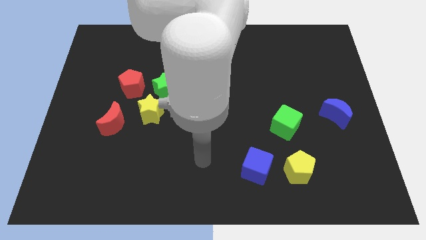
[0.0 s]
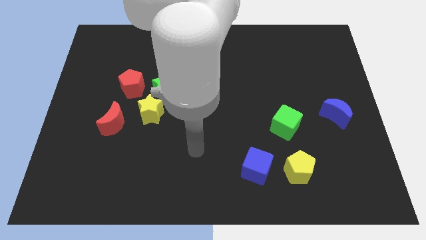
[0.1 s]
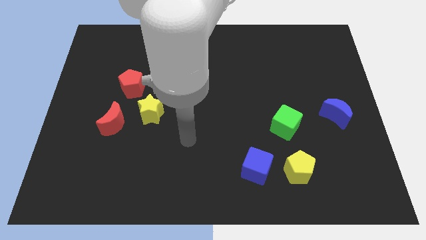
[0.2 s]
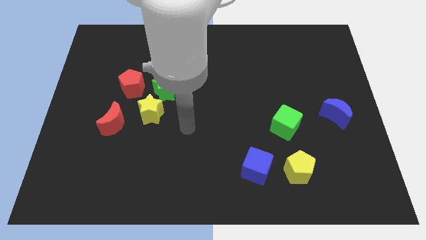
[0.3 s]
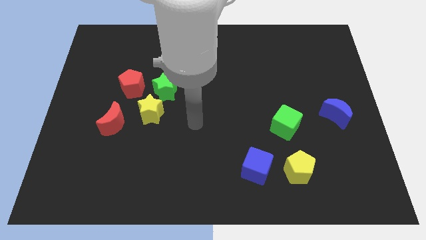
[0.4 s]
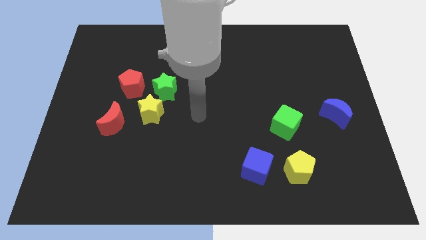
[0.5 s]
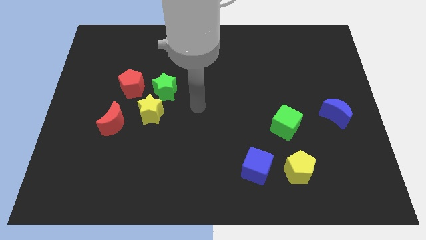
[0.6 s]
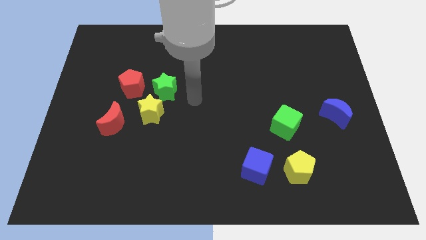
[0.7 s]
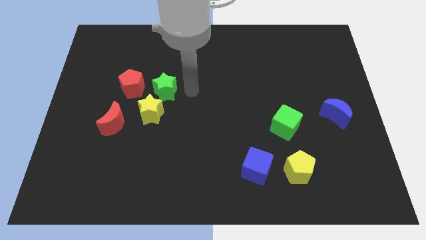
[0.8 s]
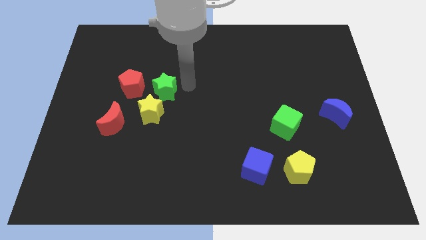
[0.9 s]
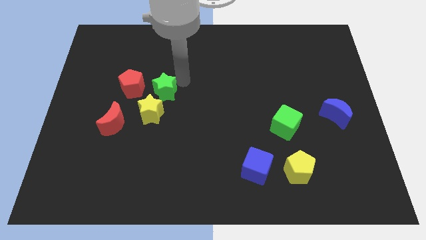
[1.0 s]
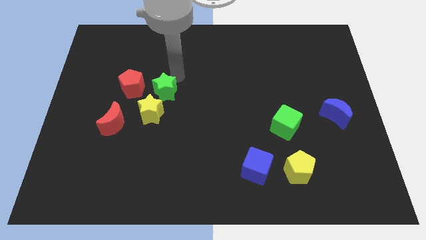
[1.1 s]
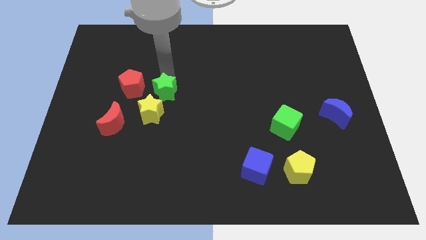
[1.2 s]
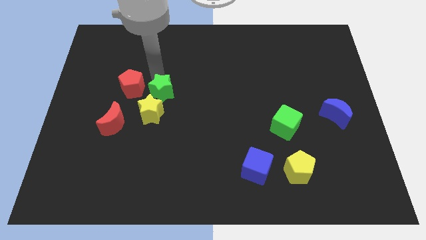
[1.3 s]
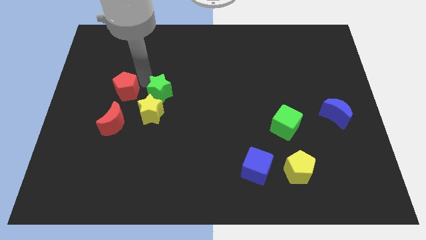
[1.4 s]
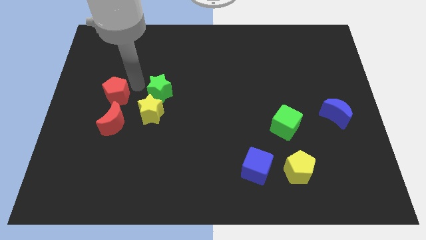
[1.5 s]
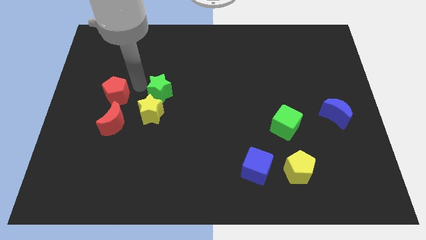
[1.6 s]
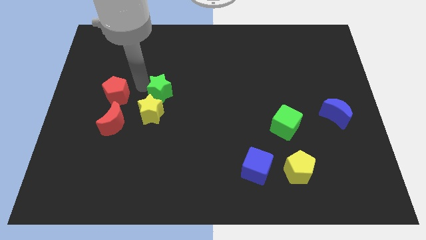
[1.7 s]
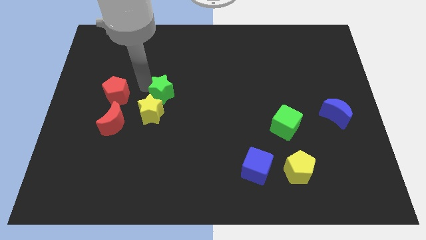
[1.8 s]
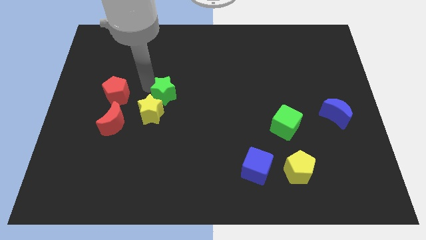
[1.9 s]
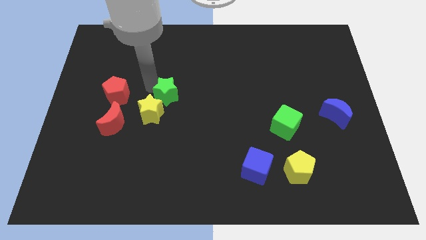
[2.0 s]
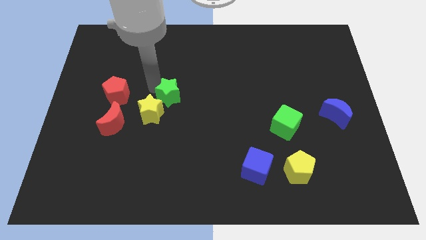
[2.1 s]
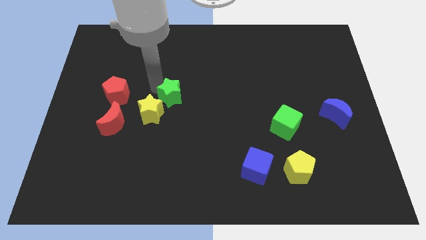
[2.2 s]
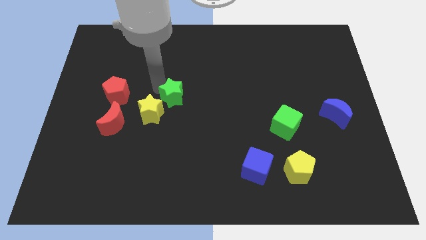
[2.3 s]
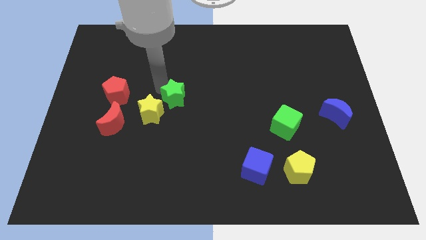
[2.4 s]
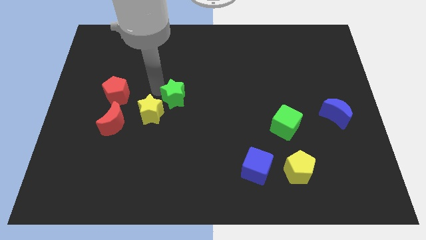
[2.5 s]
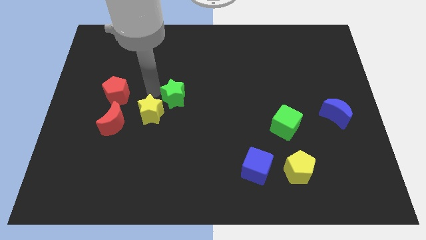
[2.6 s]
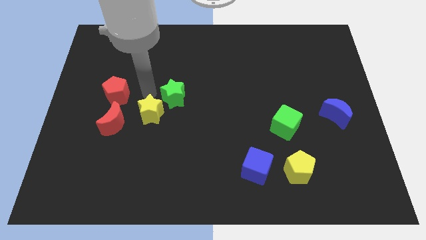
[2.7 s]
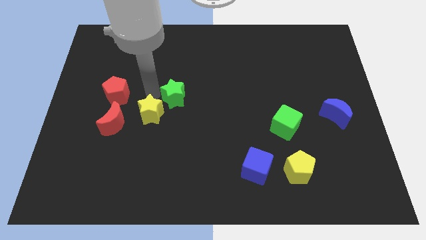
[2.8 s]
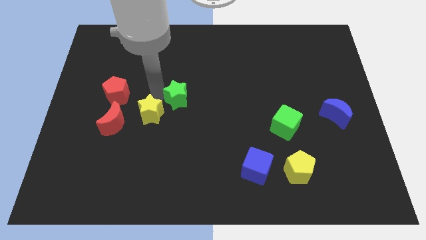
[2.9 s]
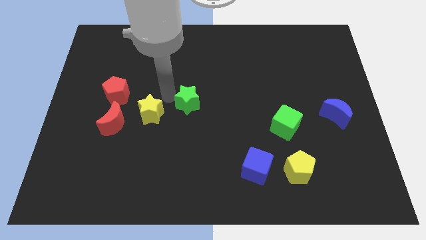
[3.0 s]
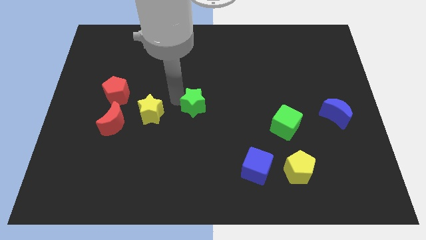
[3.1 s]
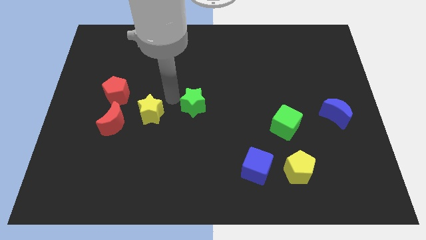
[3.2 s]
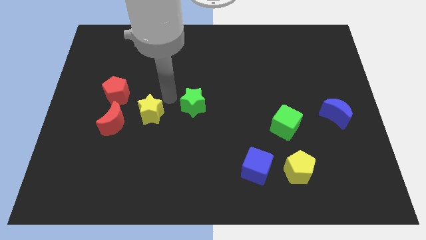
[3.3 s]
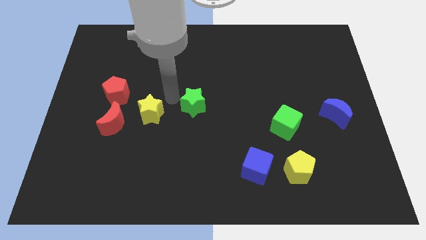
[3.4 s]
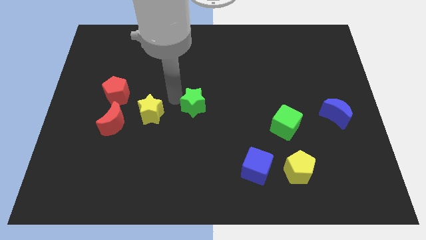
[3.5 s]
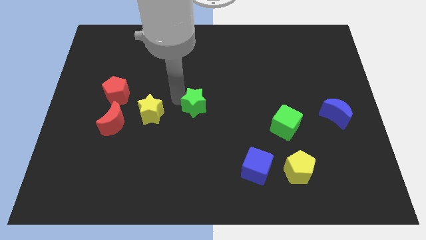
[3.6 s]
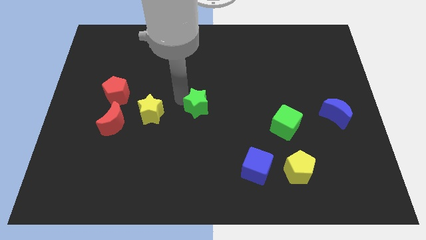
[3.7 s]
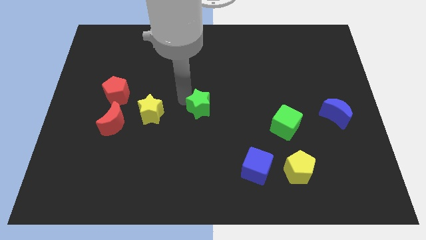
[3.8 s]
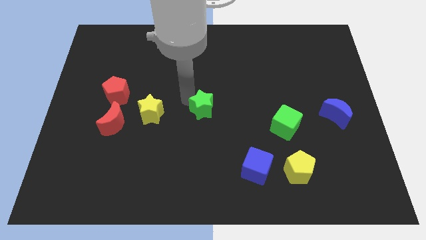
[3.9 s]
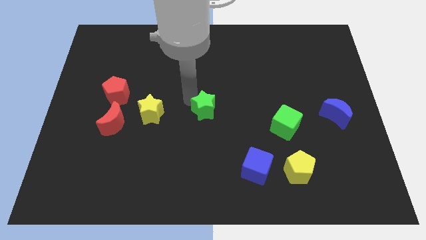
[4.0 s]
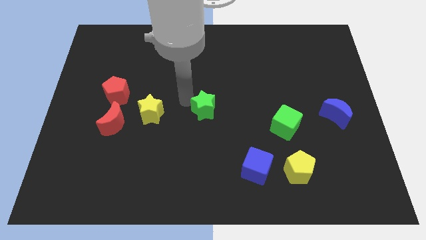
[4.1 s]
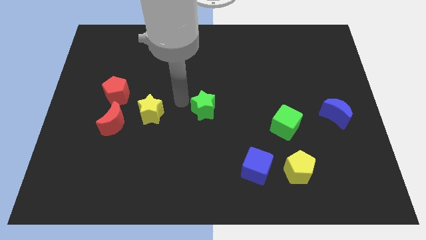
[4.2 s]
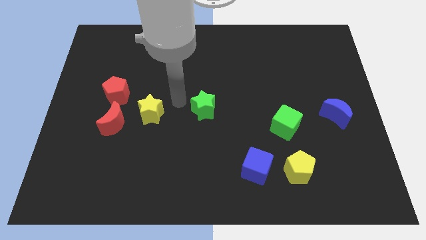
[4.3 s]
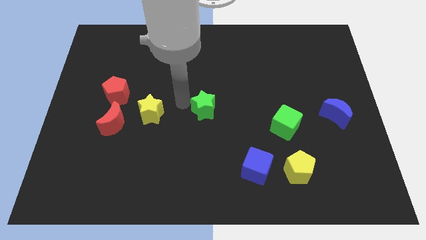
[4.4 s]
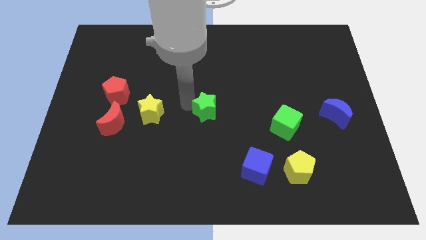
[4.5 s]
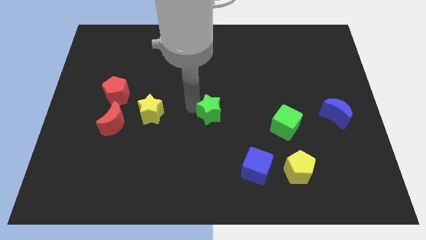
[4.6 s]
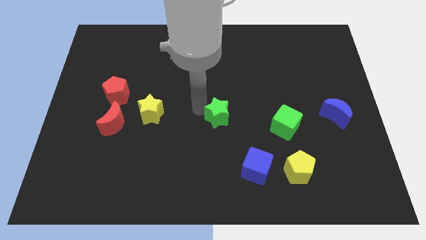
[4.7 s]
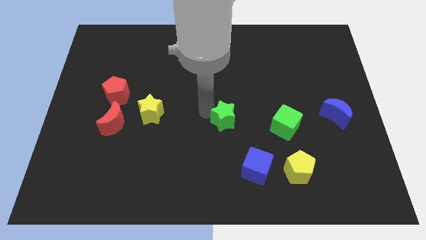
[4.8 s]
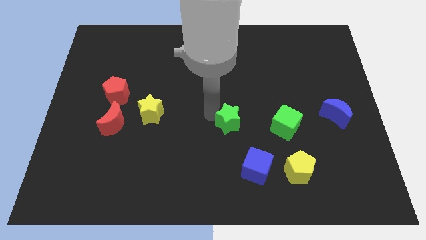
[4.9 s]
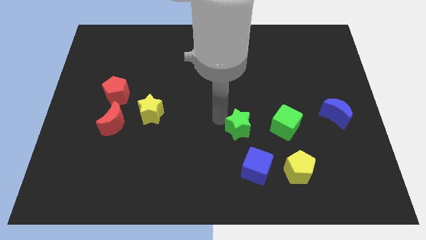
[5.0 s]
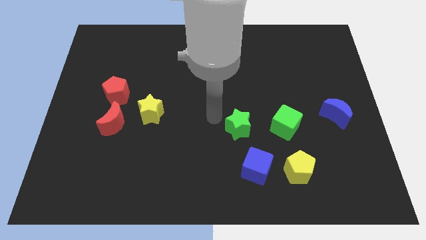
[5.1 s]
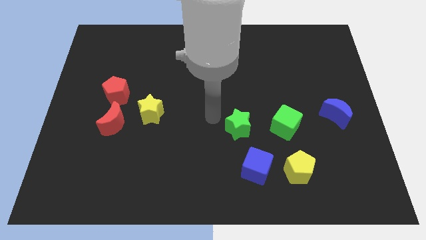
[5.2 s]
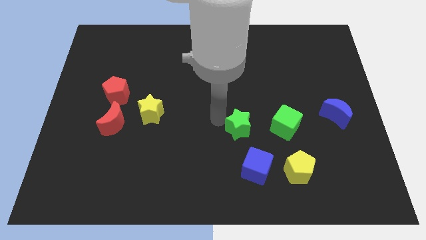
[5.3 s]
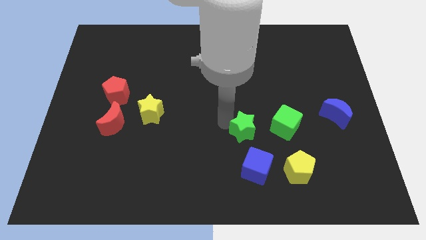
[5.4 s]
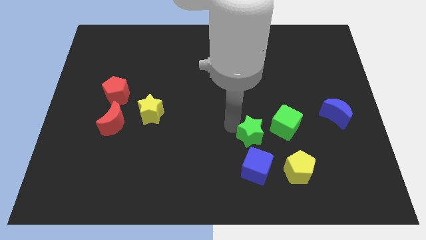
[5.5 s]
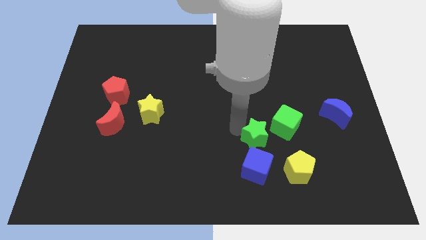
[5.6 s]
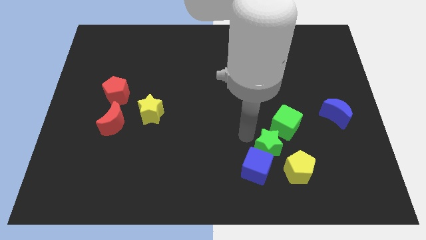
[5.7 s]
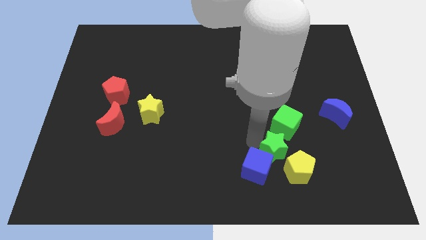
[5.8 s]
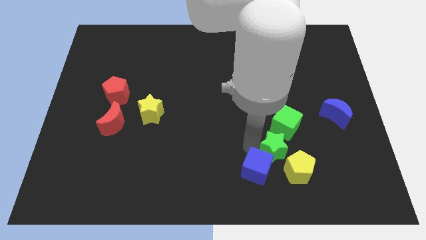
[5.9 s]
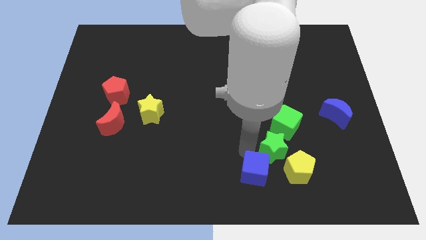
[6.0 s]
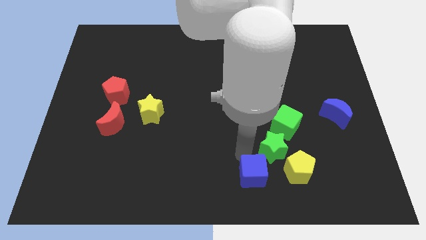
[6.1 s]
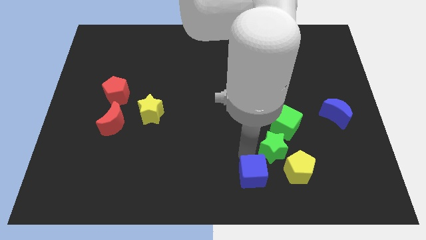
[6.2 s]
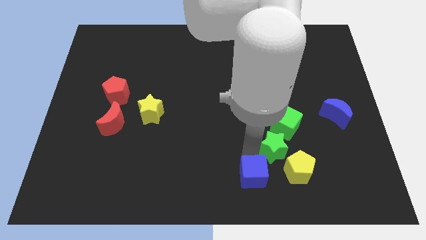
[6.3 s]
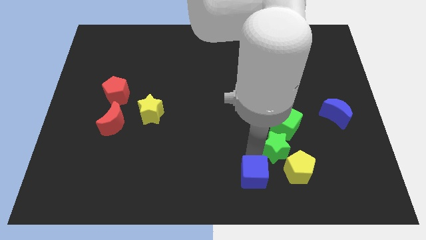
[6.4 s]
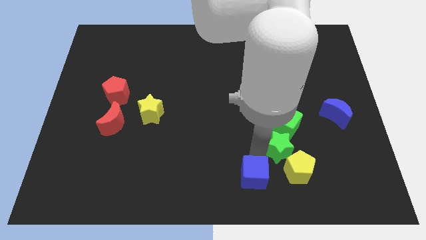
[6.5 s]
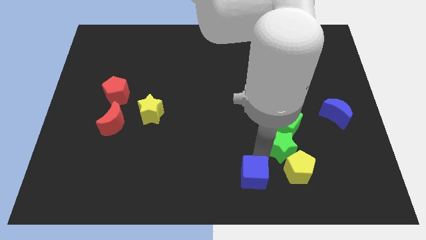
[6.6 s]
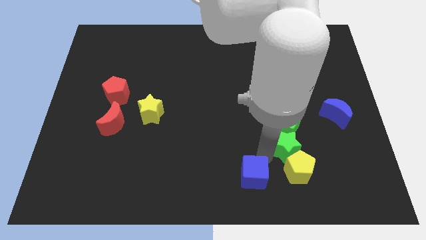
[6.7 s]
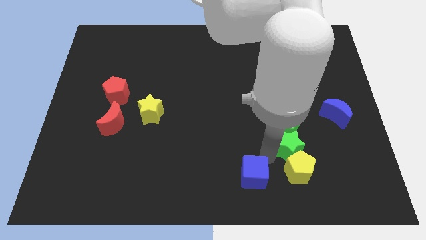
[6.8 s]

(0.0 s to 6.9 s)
move the green star to the top right of the yellow pentagon
